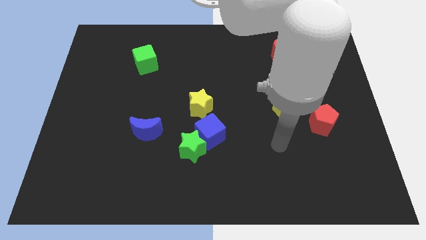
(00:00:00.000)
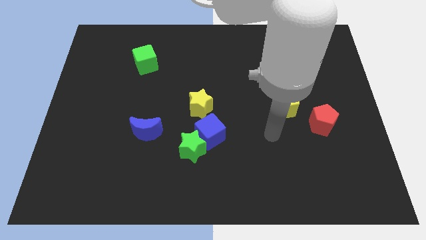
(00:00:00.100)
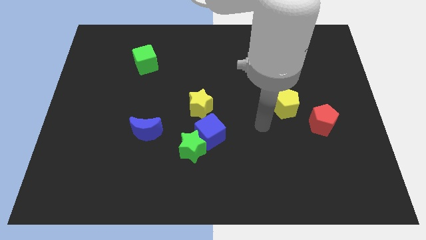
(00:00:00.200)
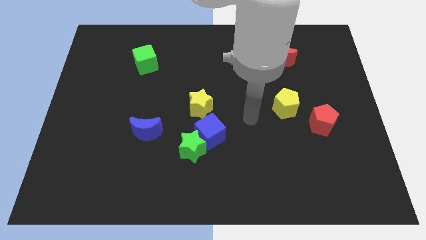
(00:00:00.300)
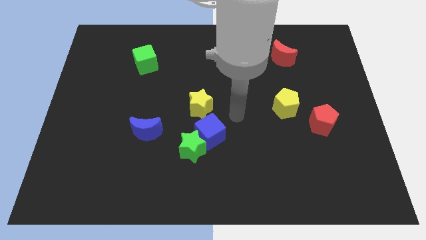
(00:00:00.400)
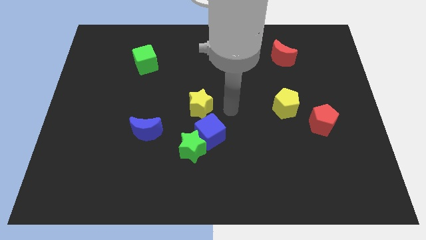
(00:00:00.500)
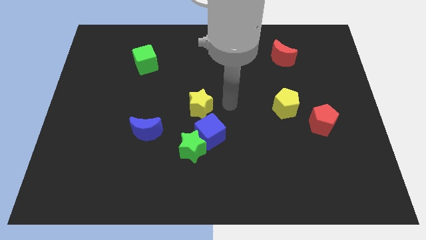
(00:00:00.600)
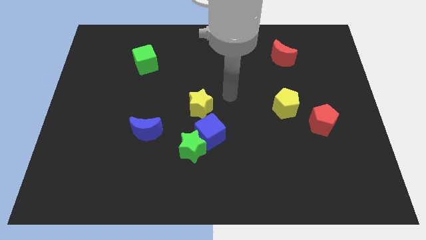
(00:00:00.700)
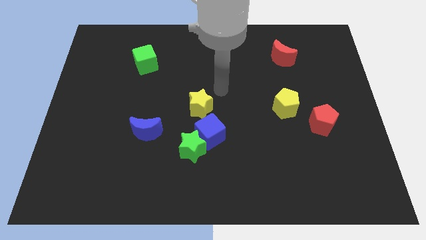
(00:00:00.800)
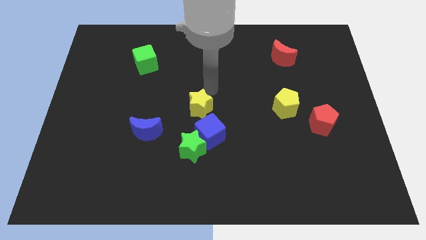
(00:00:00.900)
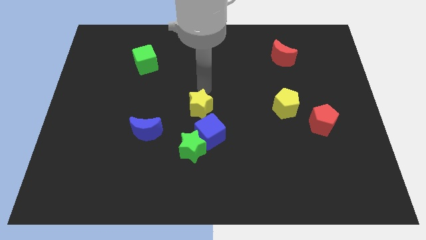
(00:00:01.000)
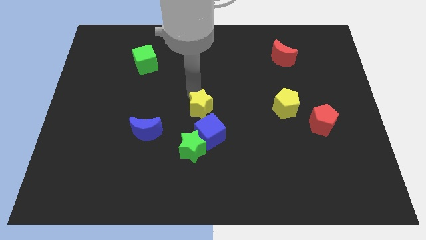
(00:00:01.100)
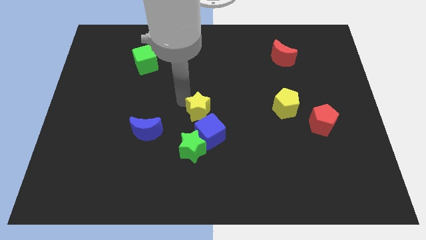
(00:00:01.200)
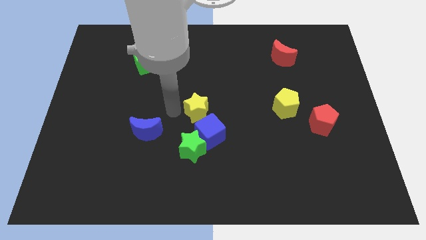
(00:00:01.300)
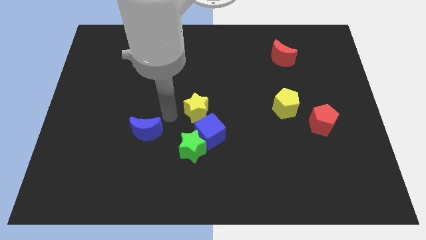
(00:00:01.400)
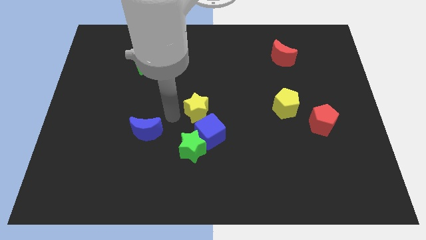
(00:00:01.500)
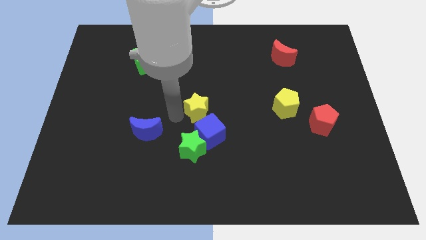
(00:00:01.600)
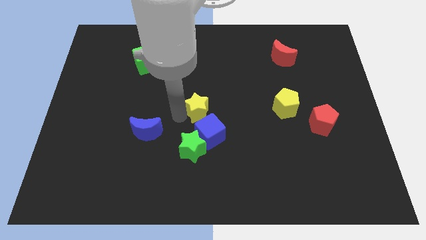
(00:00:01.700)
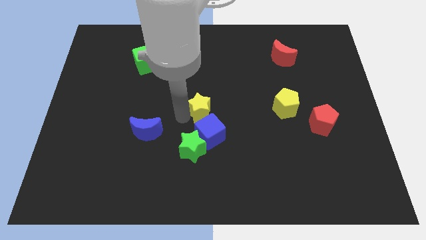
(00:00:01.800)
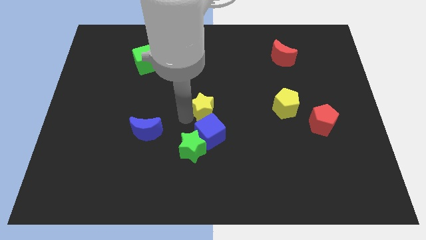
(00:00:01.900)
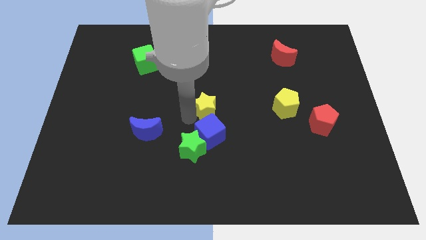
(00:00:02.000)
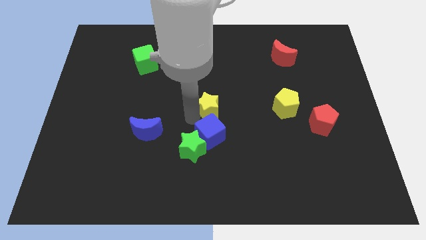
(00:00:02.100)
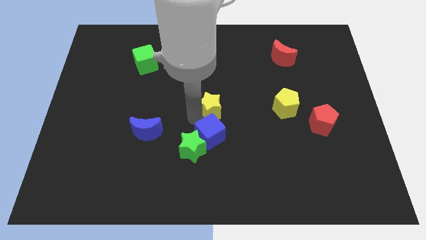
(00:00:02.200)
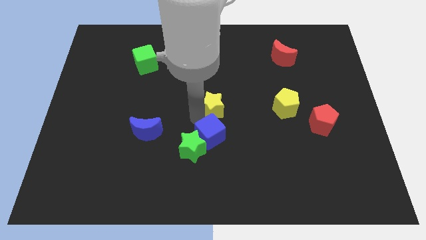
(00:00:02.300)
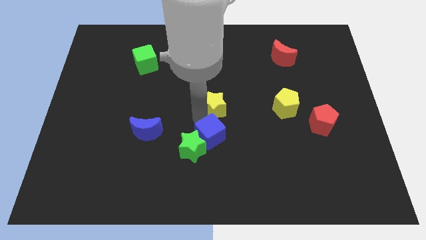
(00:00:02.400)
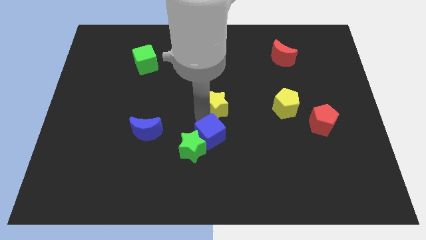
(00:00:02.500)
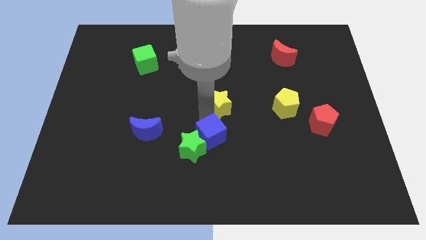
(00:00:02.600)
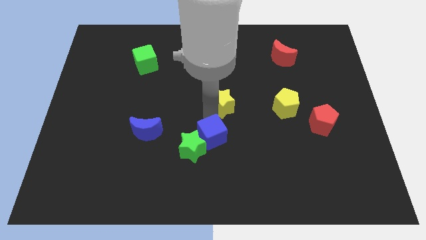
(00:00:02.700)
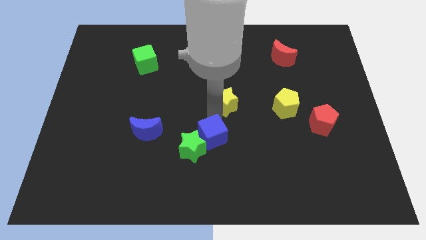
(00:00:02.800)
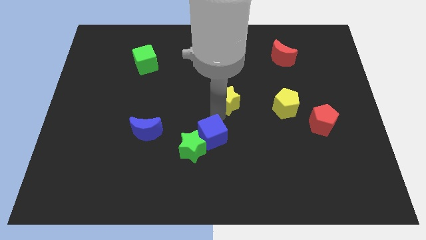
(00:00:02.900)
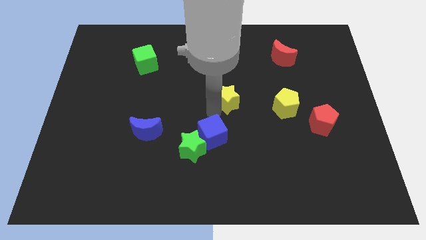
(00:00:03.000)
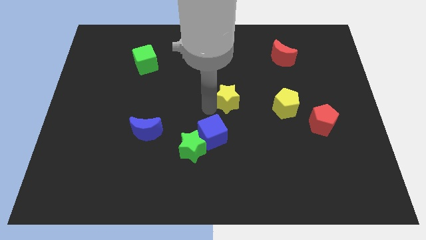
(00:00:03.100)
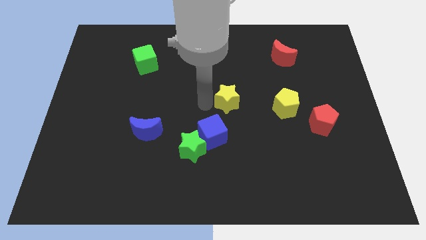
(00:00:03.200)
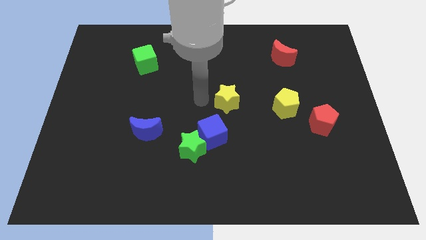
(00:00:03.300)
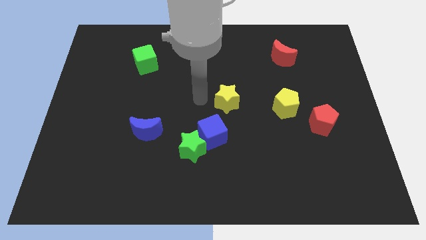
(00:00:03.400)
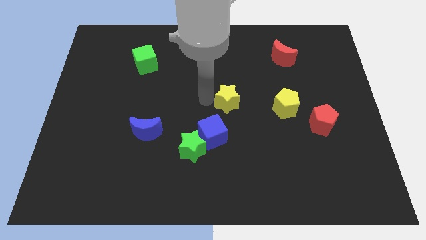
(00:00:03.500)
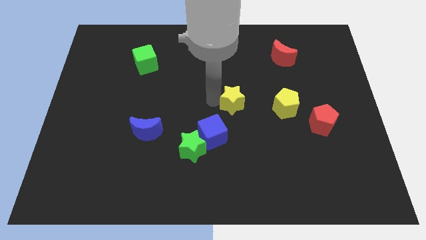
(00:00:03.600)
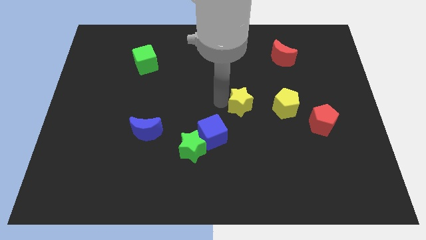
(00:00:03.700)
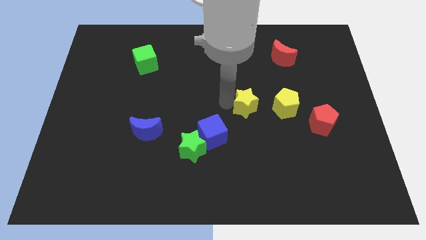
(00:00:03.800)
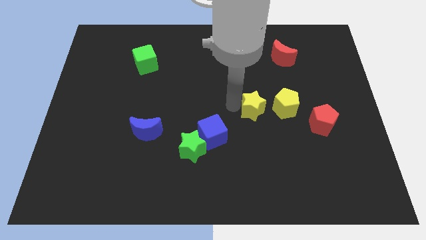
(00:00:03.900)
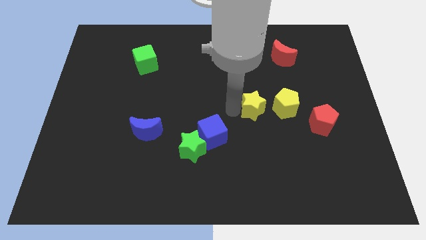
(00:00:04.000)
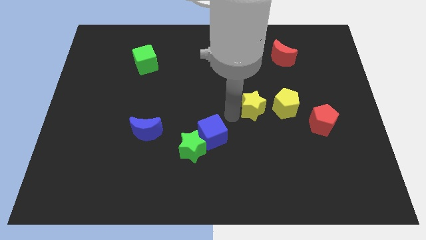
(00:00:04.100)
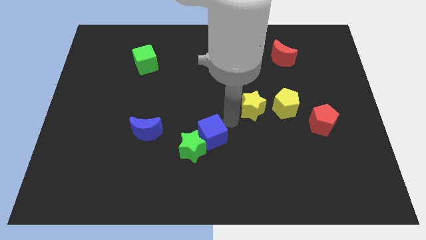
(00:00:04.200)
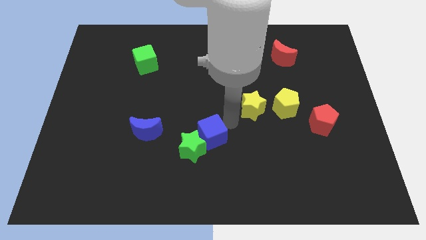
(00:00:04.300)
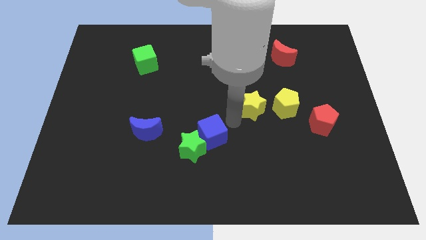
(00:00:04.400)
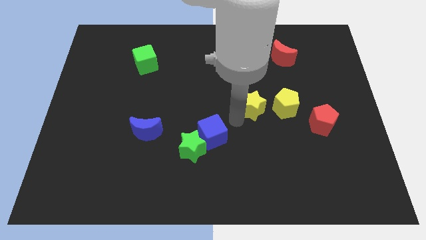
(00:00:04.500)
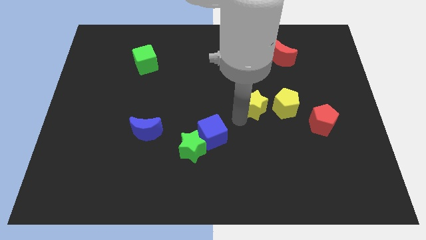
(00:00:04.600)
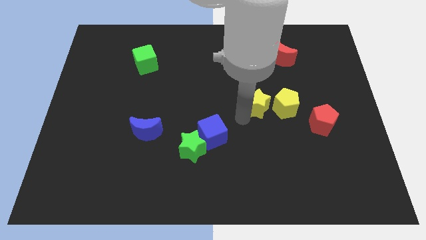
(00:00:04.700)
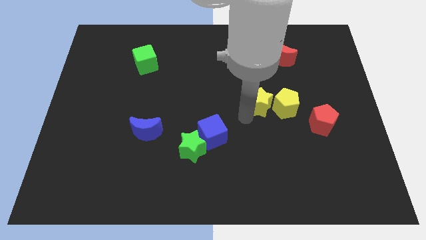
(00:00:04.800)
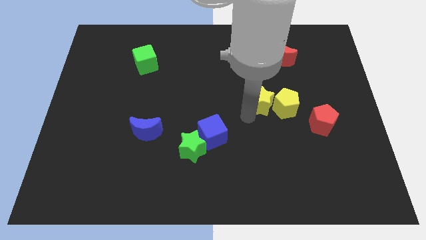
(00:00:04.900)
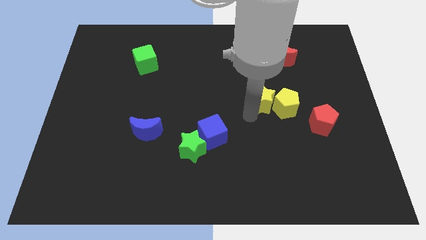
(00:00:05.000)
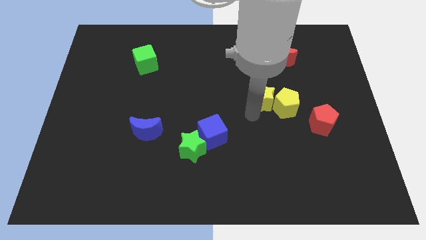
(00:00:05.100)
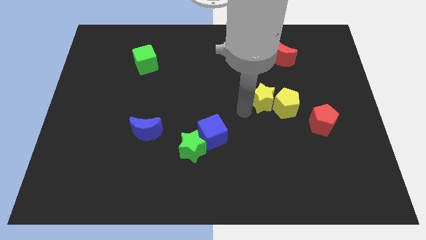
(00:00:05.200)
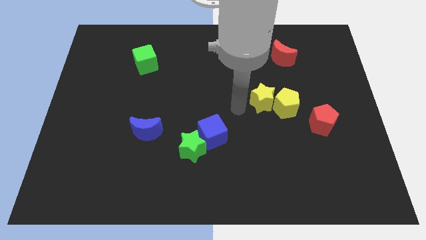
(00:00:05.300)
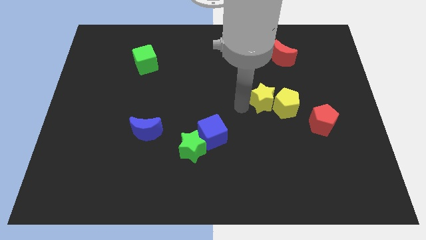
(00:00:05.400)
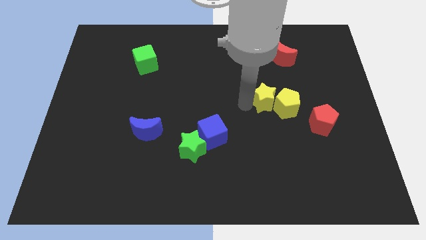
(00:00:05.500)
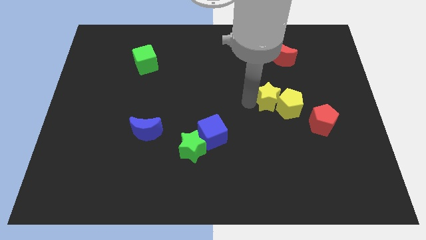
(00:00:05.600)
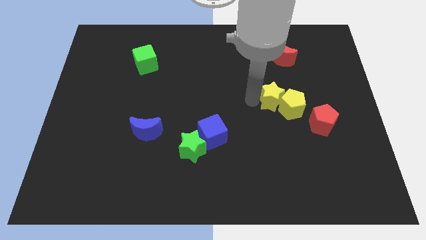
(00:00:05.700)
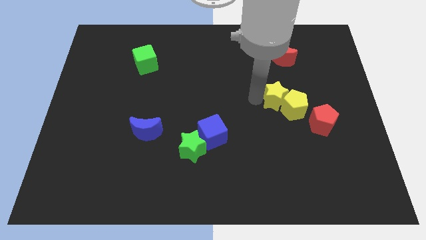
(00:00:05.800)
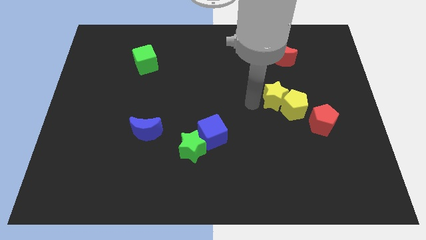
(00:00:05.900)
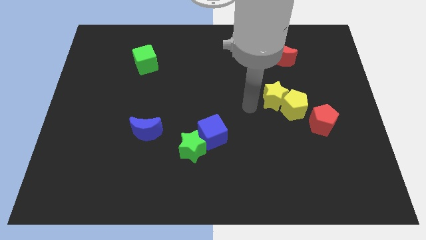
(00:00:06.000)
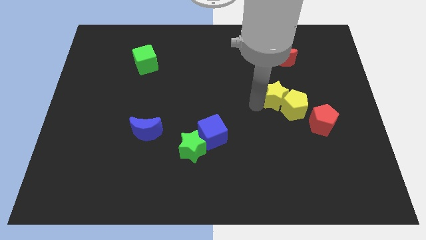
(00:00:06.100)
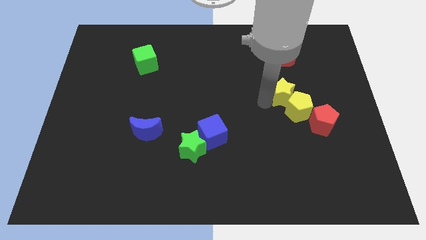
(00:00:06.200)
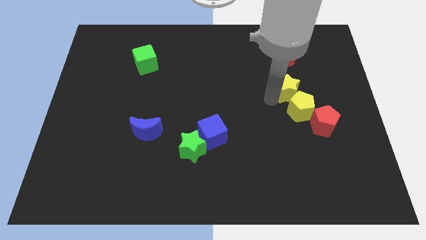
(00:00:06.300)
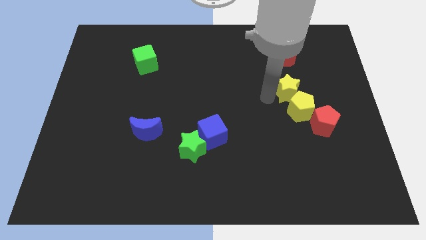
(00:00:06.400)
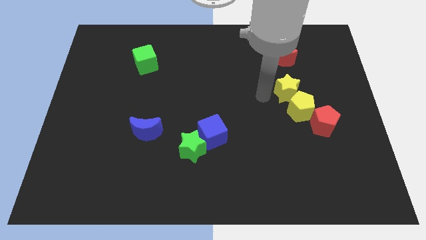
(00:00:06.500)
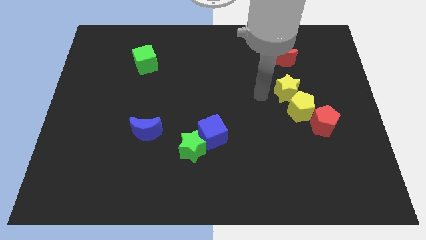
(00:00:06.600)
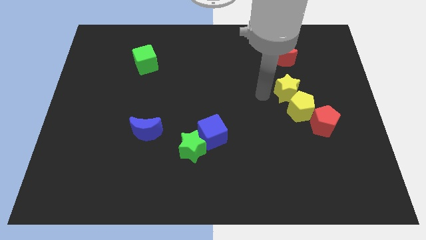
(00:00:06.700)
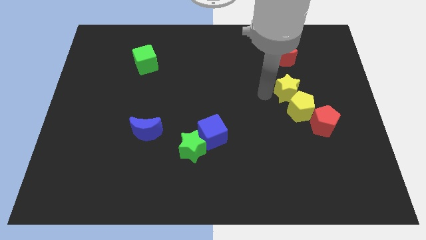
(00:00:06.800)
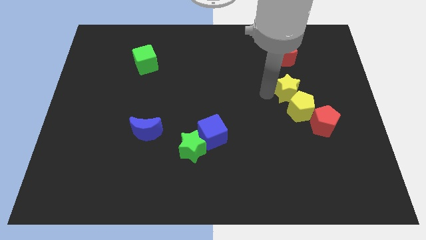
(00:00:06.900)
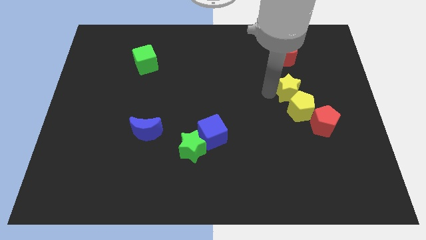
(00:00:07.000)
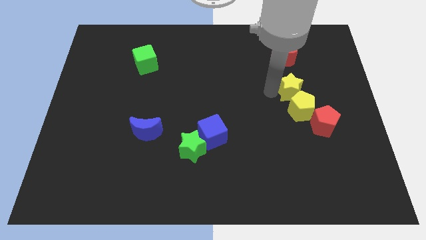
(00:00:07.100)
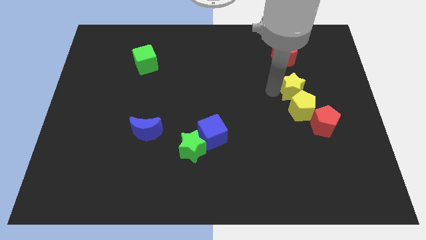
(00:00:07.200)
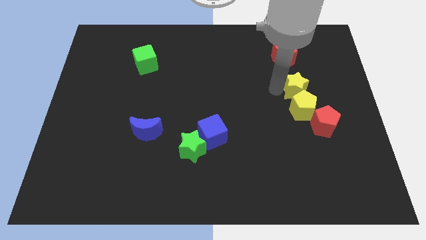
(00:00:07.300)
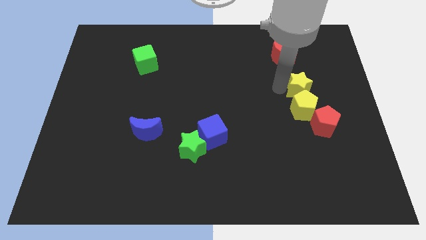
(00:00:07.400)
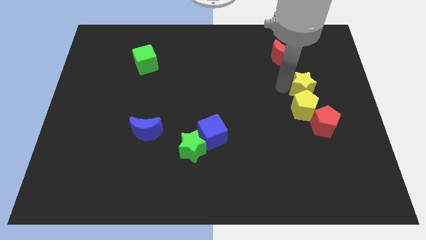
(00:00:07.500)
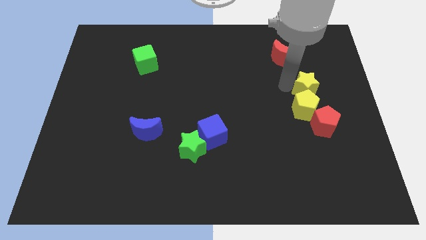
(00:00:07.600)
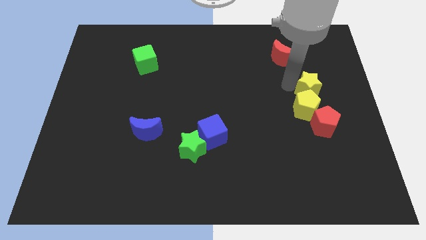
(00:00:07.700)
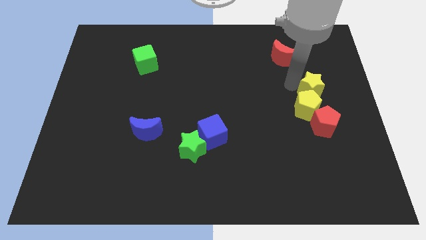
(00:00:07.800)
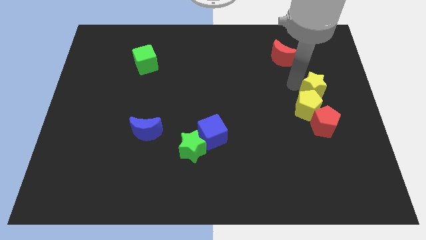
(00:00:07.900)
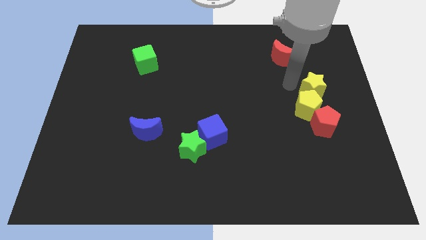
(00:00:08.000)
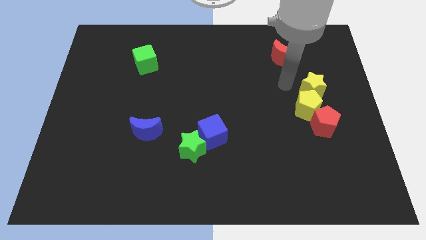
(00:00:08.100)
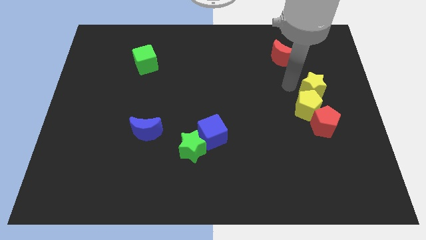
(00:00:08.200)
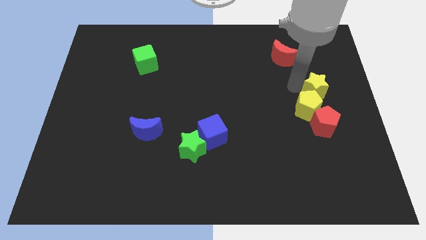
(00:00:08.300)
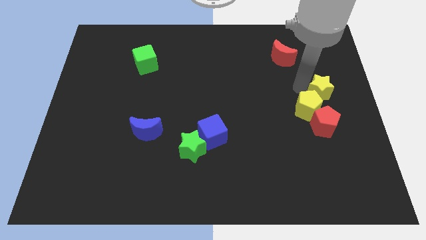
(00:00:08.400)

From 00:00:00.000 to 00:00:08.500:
put the yellow star to the right side
